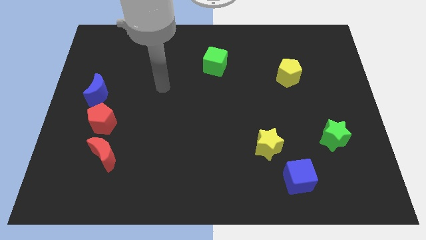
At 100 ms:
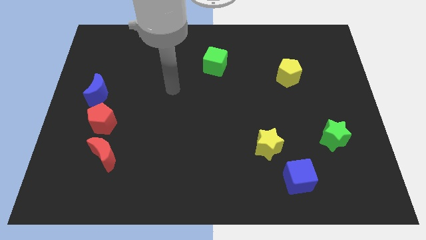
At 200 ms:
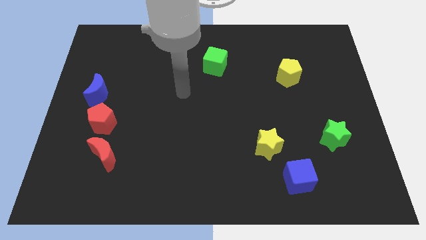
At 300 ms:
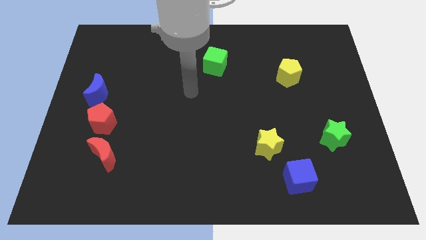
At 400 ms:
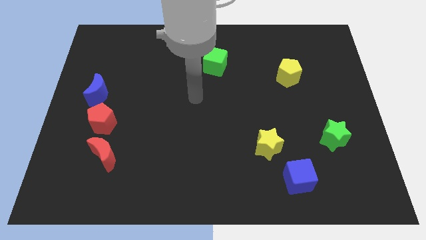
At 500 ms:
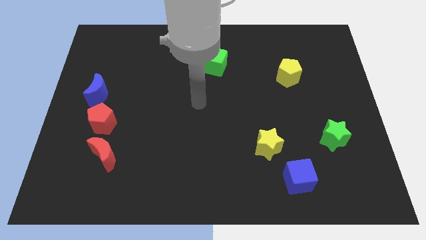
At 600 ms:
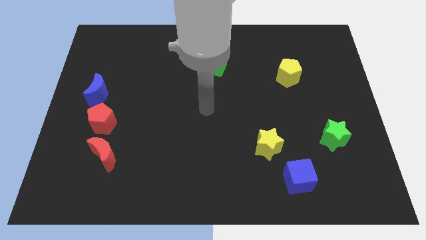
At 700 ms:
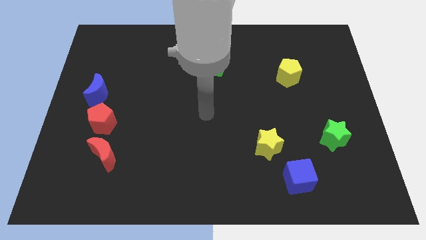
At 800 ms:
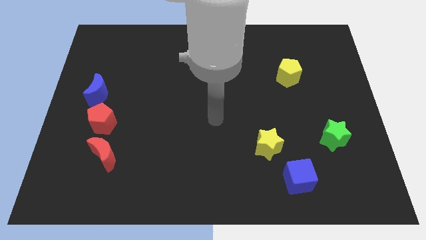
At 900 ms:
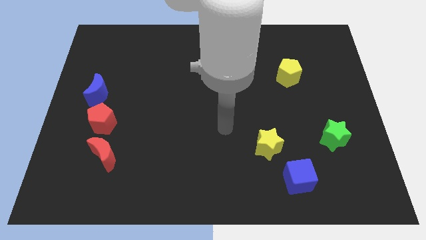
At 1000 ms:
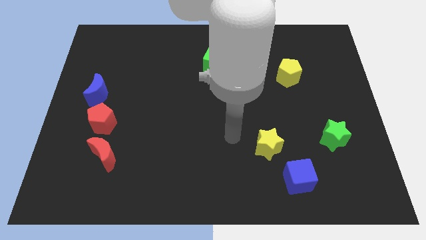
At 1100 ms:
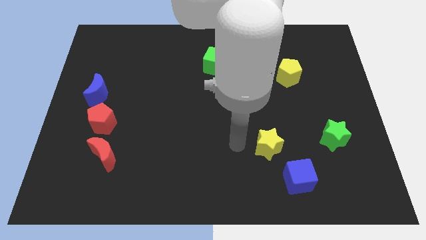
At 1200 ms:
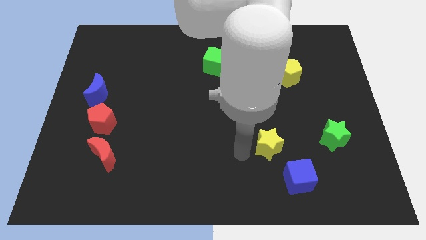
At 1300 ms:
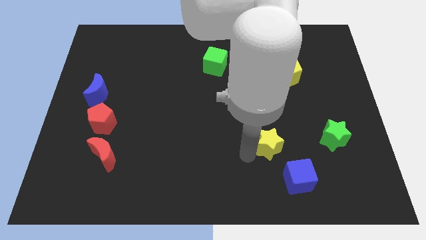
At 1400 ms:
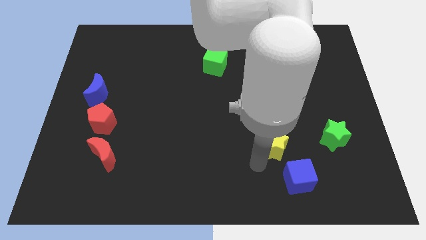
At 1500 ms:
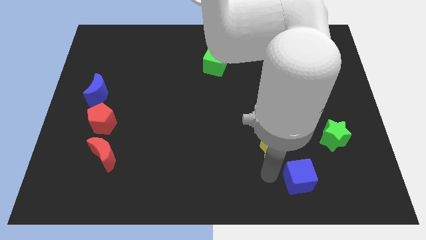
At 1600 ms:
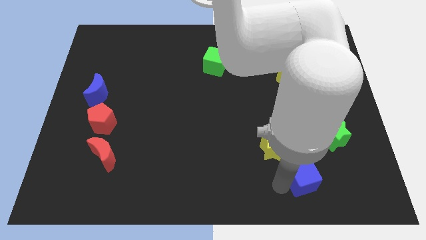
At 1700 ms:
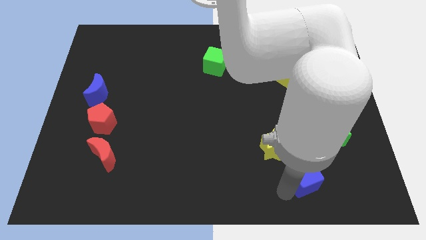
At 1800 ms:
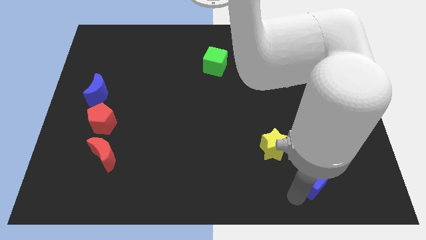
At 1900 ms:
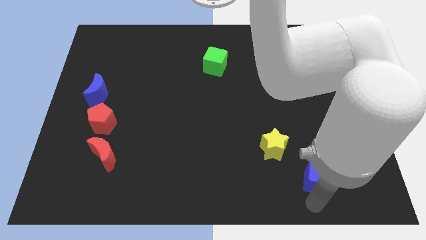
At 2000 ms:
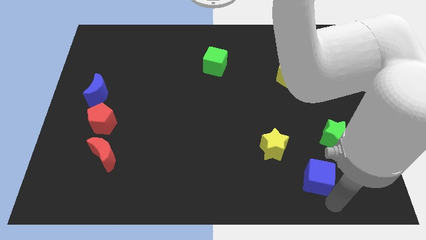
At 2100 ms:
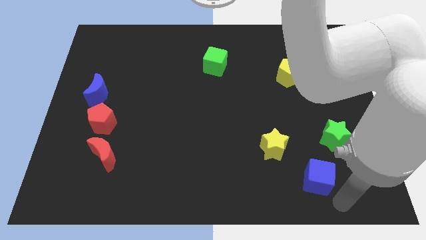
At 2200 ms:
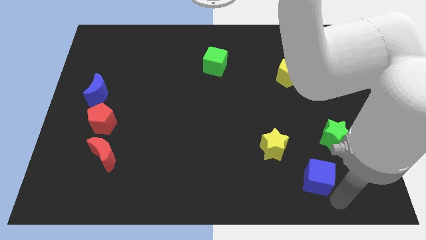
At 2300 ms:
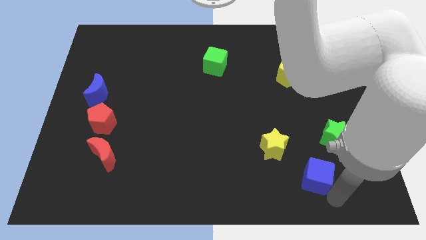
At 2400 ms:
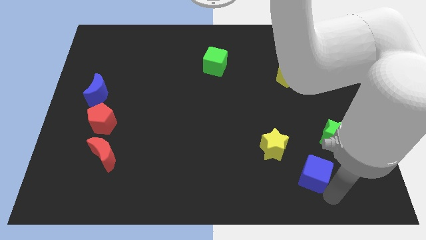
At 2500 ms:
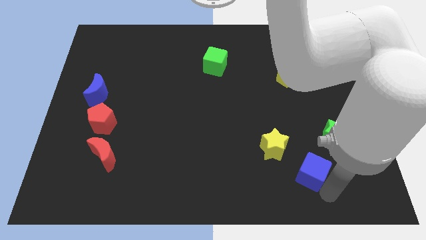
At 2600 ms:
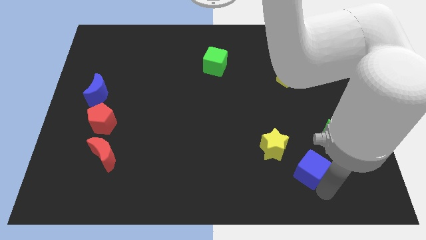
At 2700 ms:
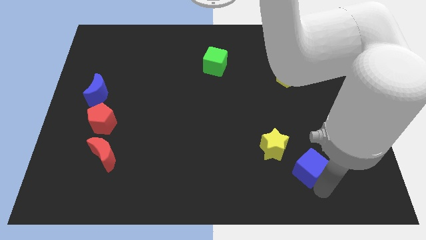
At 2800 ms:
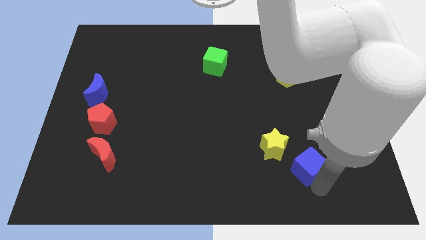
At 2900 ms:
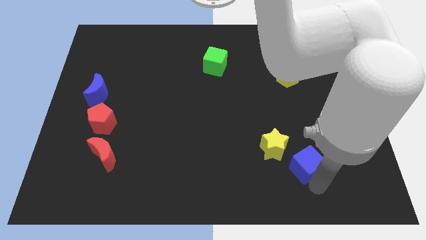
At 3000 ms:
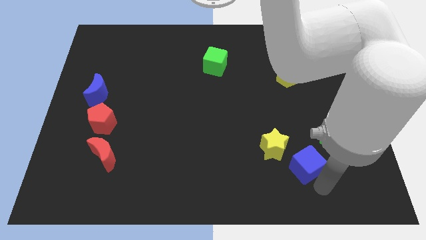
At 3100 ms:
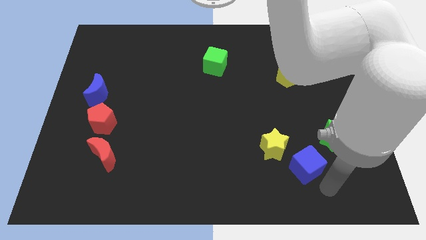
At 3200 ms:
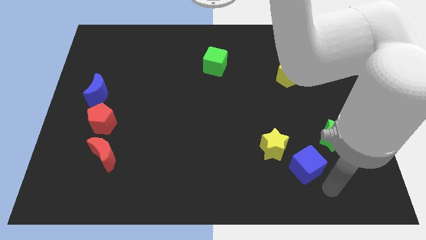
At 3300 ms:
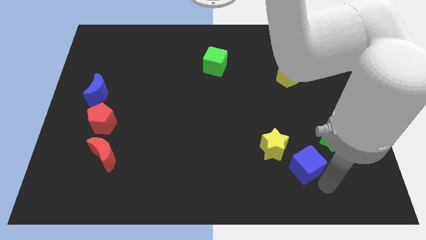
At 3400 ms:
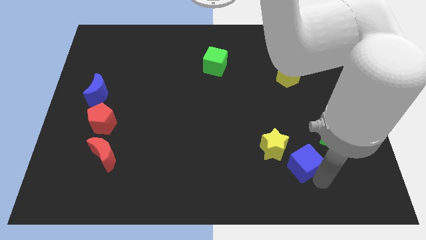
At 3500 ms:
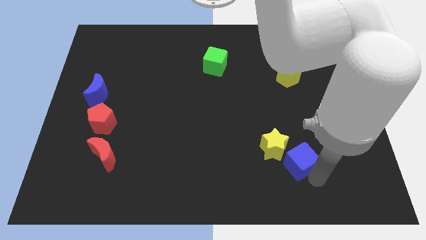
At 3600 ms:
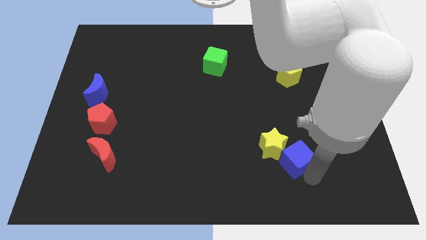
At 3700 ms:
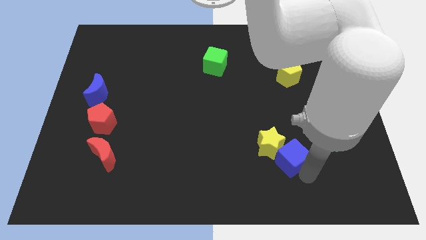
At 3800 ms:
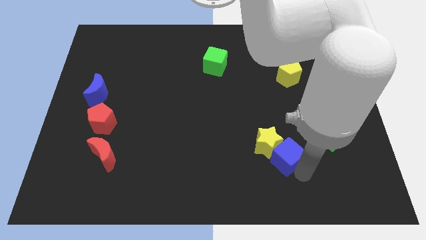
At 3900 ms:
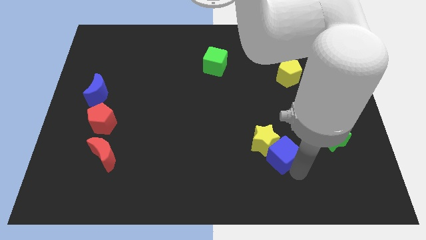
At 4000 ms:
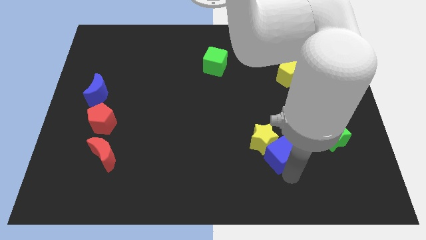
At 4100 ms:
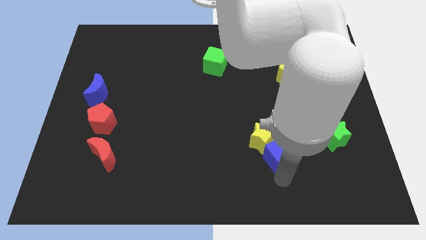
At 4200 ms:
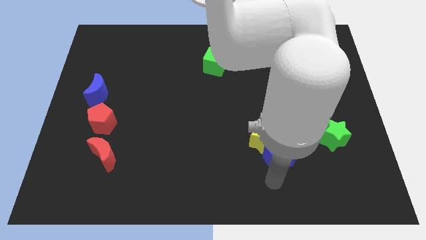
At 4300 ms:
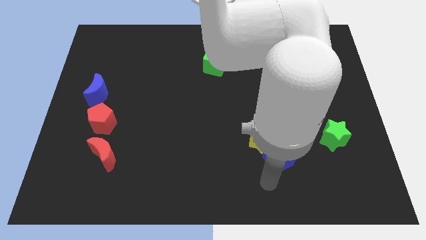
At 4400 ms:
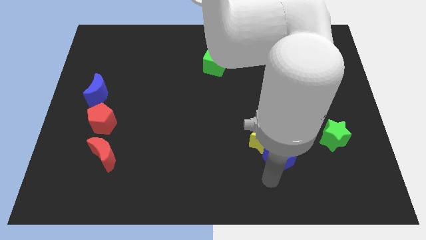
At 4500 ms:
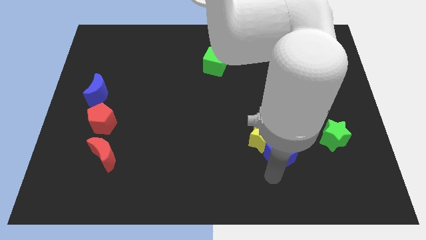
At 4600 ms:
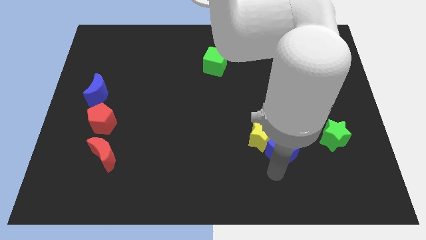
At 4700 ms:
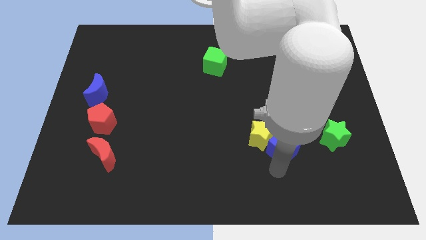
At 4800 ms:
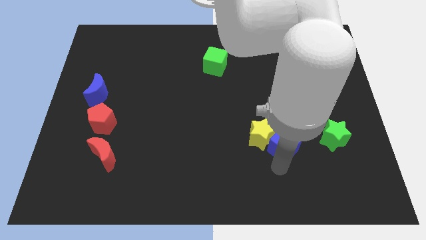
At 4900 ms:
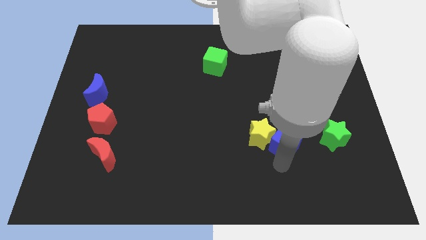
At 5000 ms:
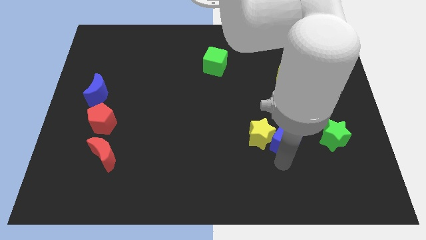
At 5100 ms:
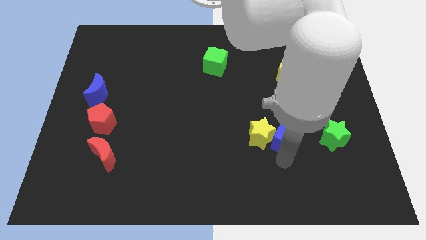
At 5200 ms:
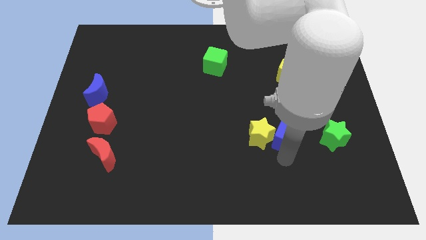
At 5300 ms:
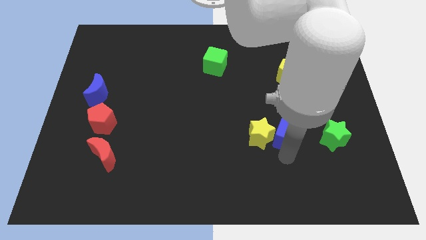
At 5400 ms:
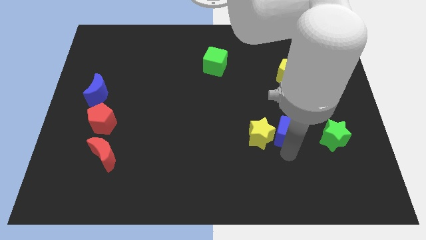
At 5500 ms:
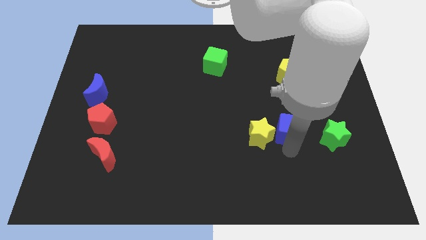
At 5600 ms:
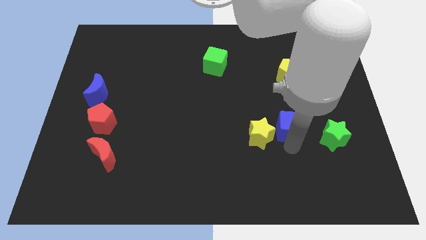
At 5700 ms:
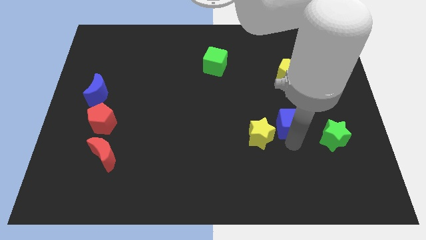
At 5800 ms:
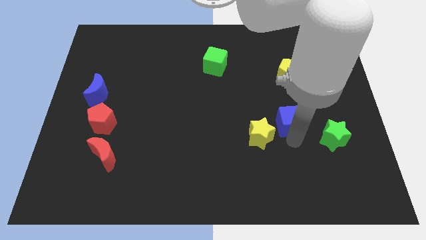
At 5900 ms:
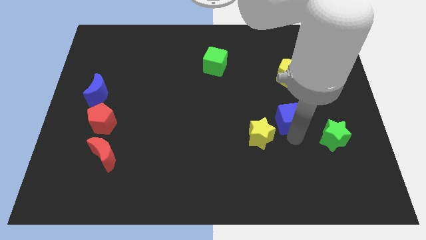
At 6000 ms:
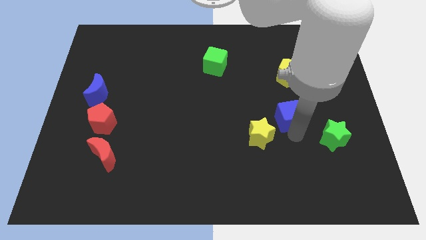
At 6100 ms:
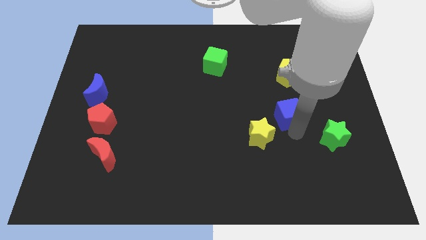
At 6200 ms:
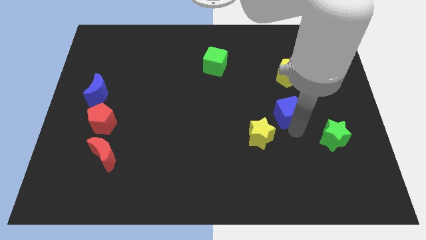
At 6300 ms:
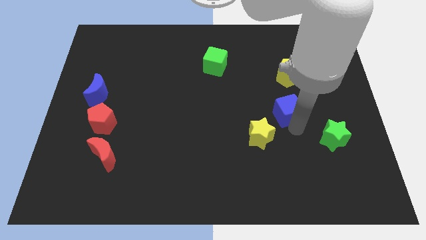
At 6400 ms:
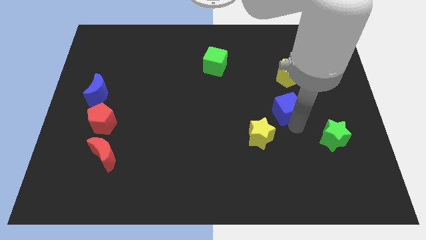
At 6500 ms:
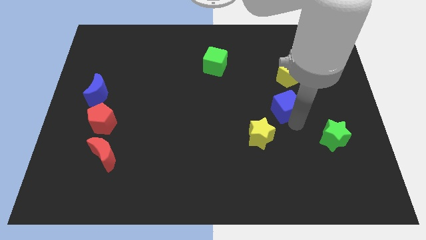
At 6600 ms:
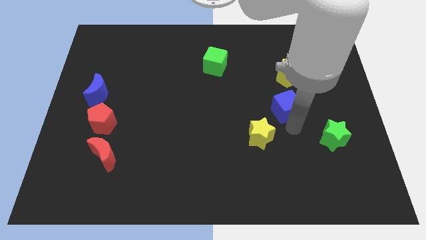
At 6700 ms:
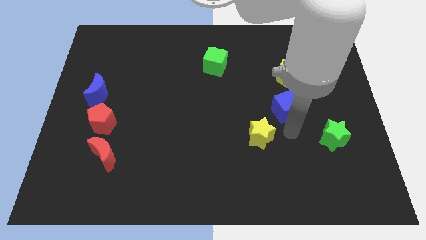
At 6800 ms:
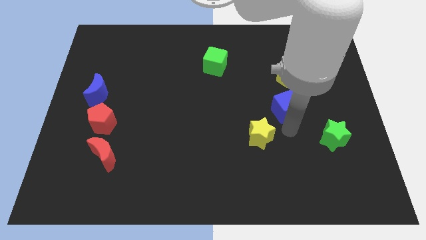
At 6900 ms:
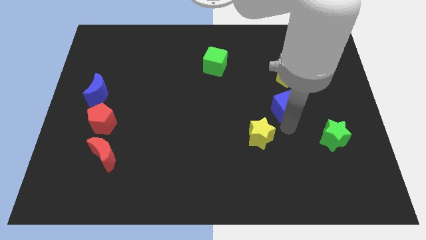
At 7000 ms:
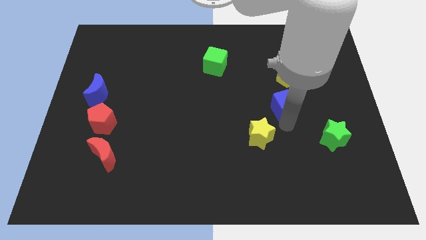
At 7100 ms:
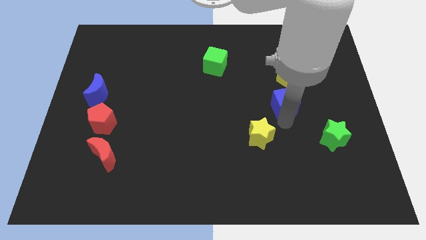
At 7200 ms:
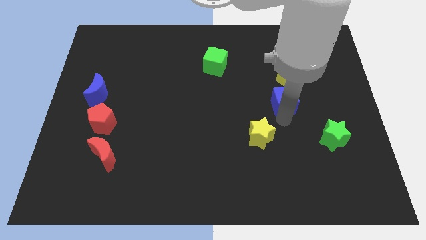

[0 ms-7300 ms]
slide the blue cube upwards

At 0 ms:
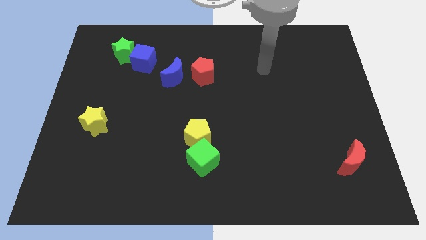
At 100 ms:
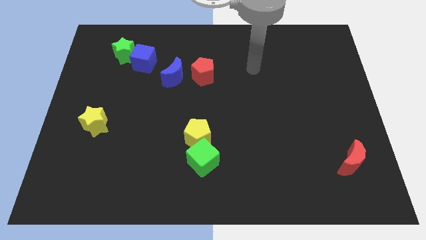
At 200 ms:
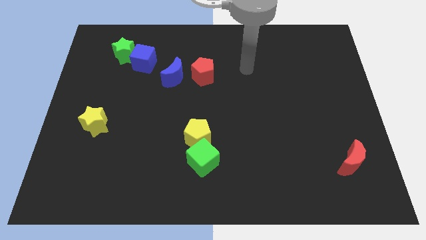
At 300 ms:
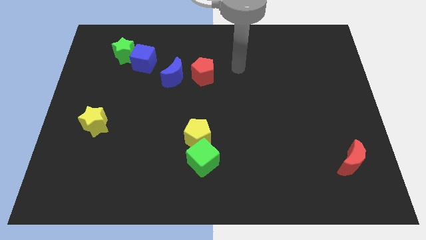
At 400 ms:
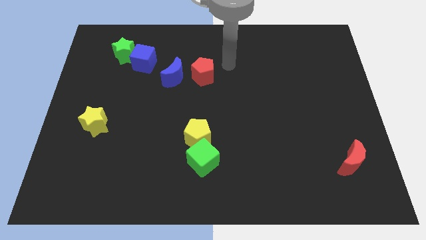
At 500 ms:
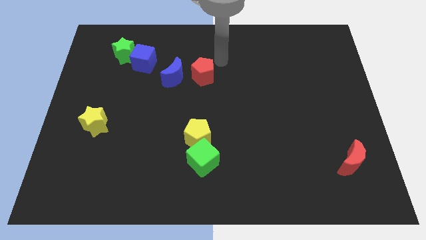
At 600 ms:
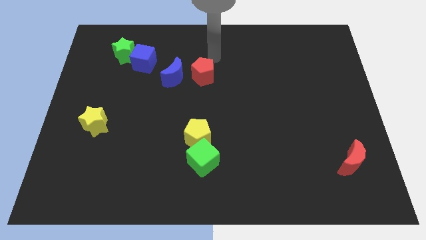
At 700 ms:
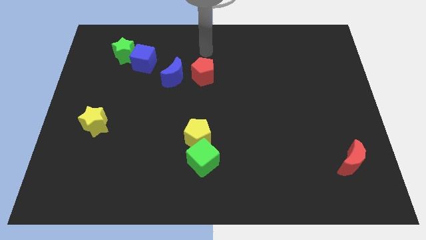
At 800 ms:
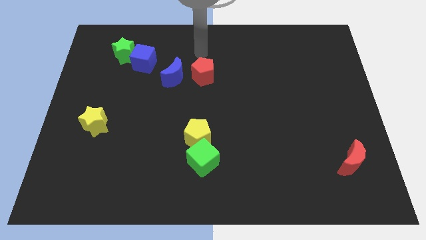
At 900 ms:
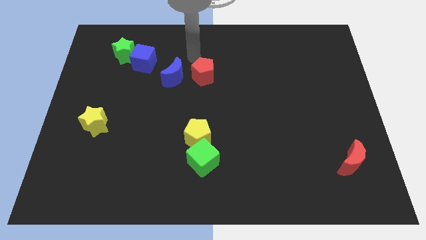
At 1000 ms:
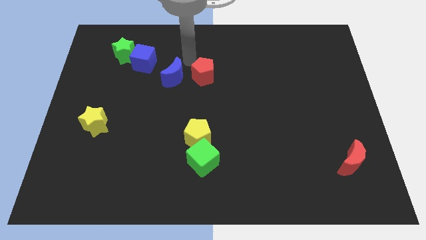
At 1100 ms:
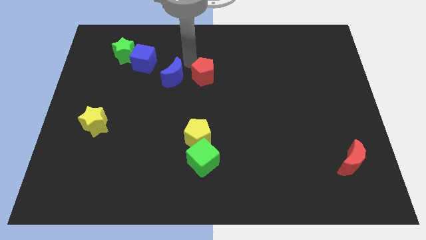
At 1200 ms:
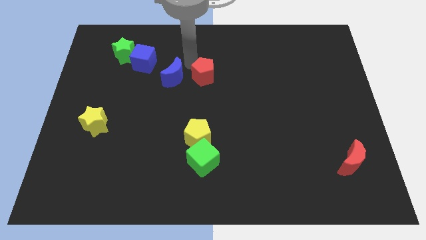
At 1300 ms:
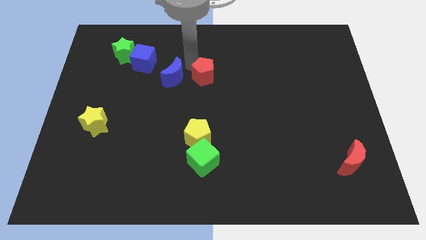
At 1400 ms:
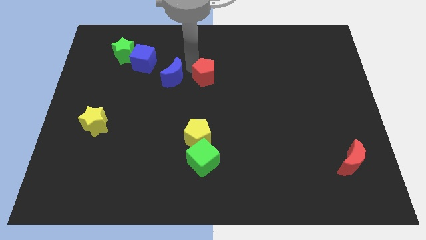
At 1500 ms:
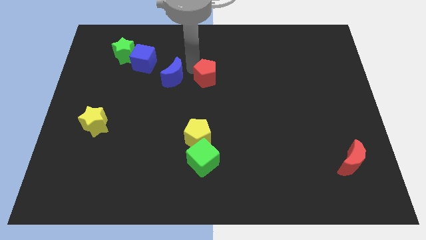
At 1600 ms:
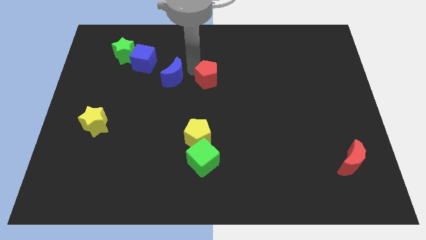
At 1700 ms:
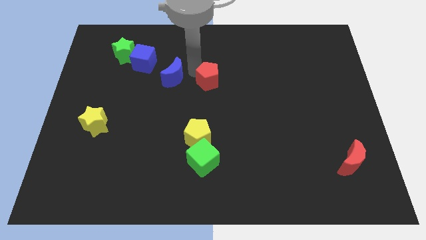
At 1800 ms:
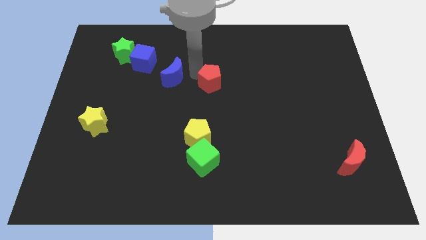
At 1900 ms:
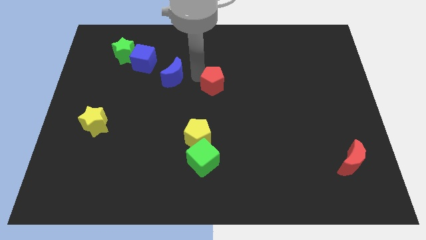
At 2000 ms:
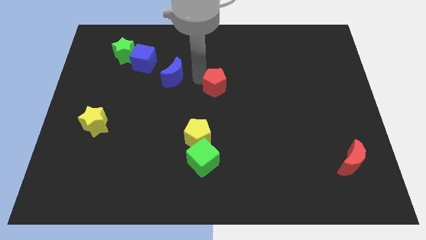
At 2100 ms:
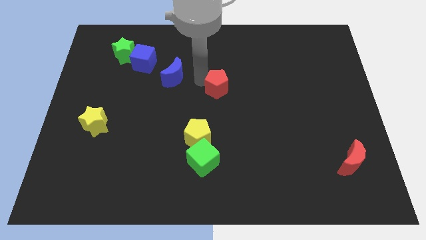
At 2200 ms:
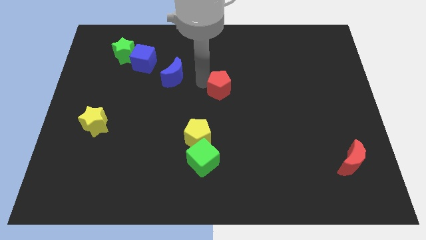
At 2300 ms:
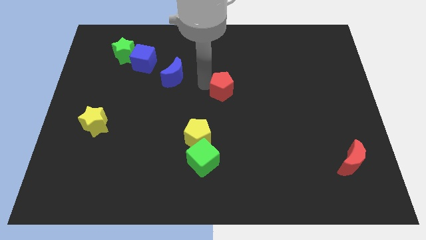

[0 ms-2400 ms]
slide the red pentagon a bit diagonally downwards and to the right
